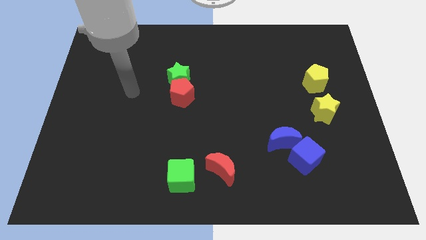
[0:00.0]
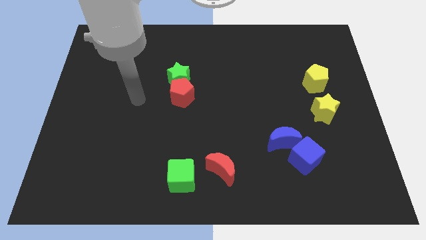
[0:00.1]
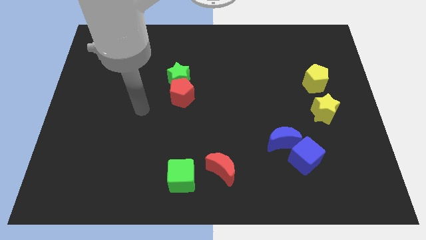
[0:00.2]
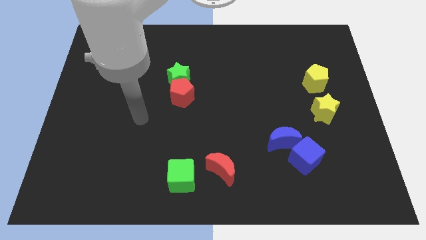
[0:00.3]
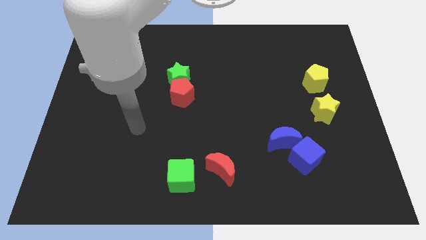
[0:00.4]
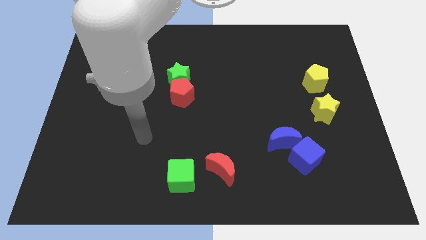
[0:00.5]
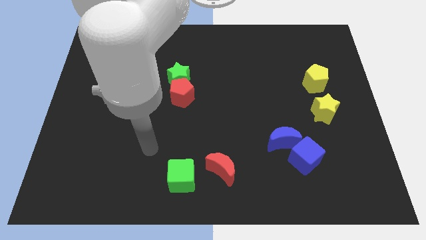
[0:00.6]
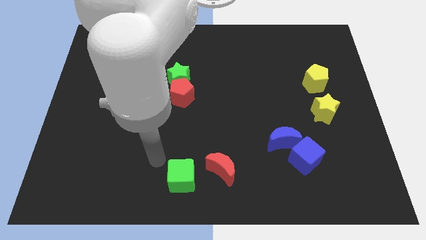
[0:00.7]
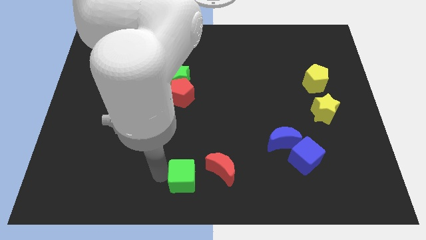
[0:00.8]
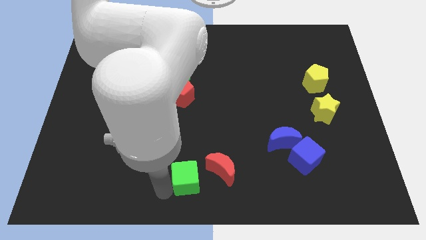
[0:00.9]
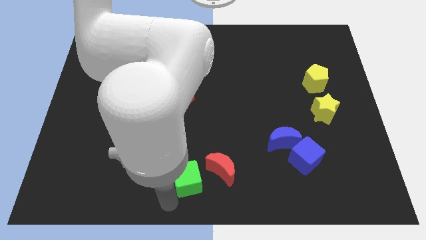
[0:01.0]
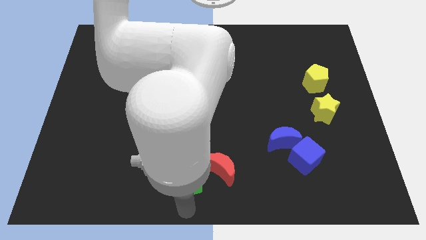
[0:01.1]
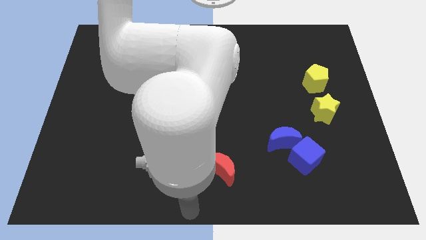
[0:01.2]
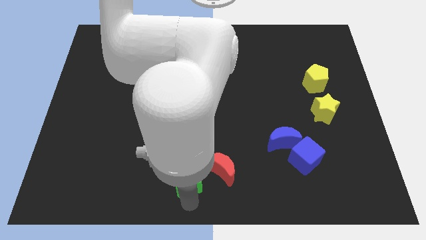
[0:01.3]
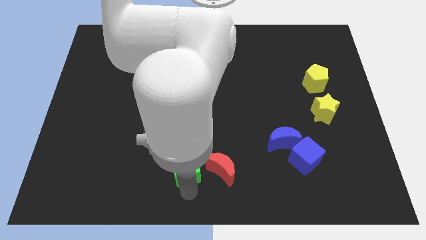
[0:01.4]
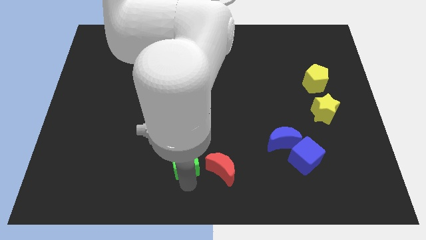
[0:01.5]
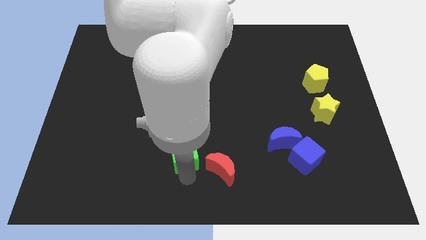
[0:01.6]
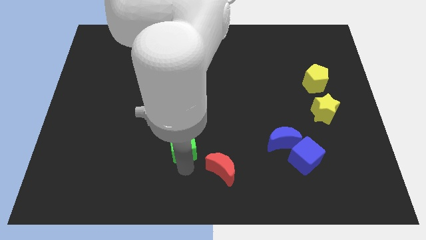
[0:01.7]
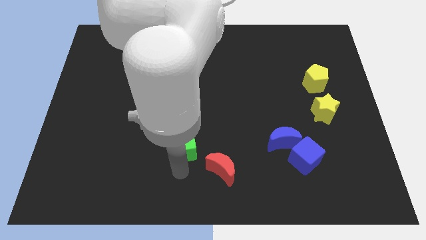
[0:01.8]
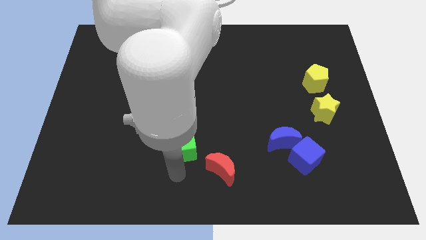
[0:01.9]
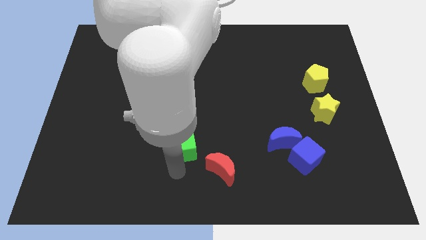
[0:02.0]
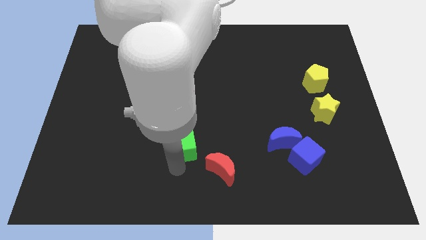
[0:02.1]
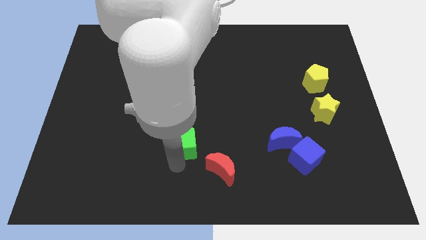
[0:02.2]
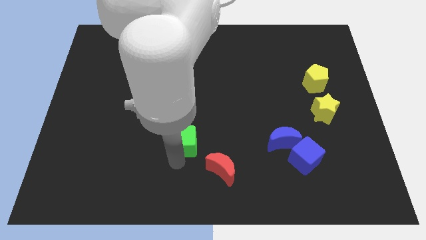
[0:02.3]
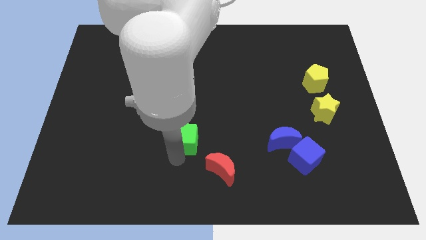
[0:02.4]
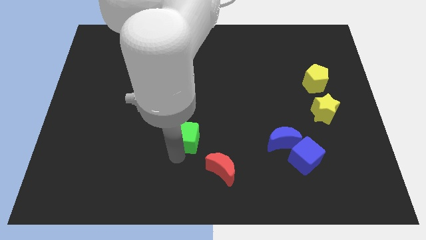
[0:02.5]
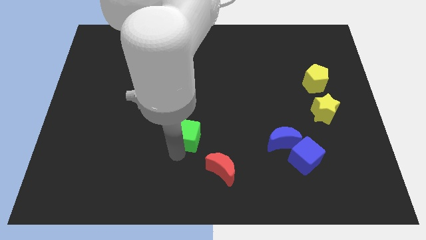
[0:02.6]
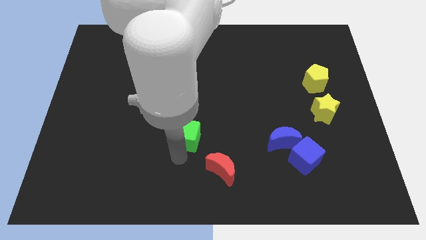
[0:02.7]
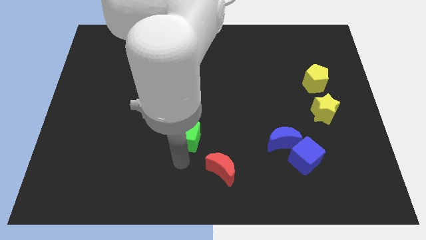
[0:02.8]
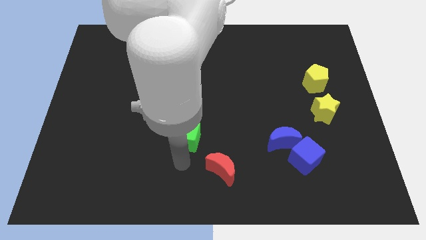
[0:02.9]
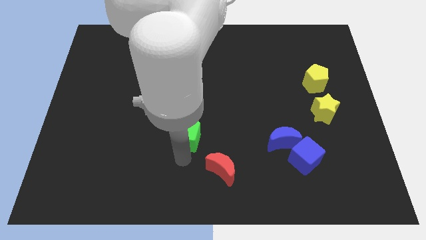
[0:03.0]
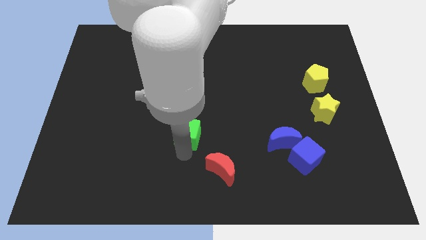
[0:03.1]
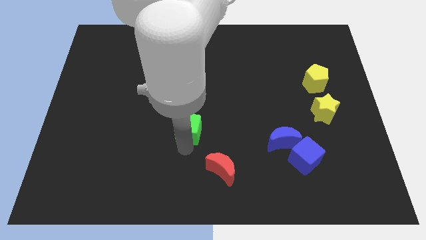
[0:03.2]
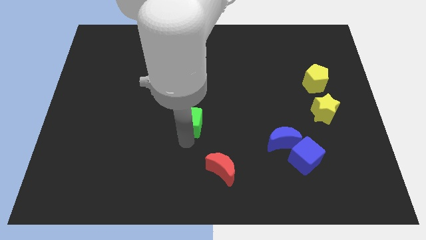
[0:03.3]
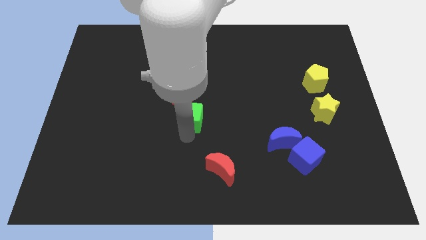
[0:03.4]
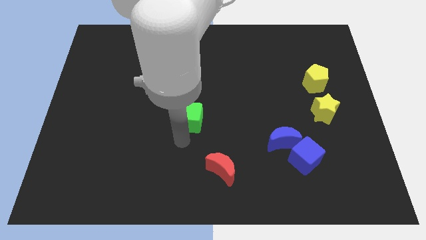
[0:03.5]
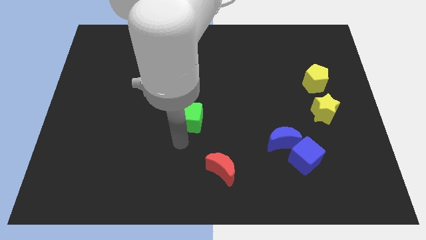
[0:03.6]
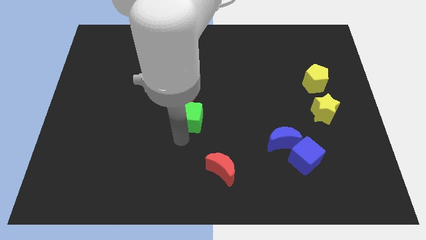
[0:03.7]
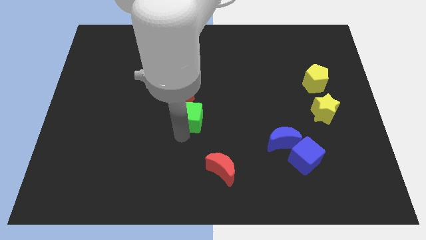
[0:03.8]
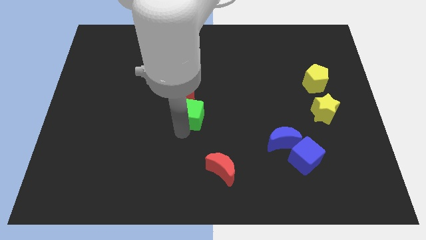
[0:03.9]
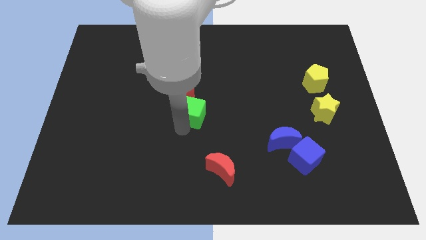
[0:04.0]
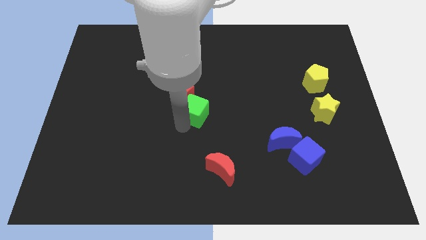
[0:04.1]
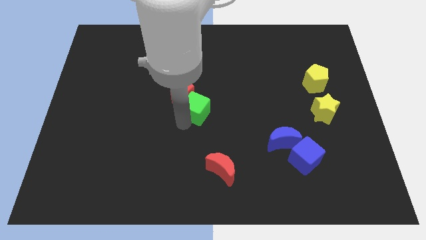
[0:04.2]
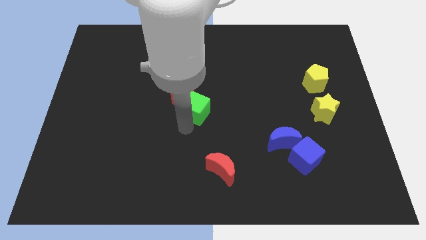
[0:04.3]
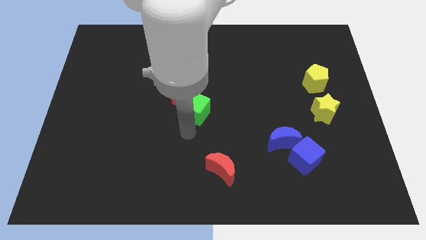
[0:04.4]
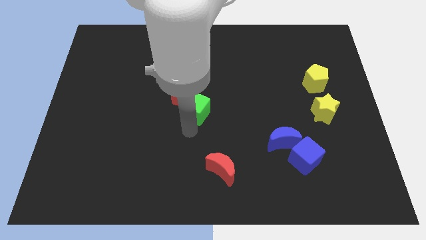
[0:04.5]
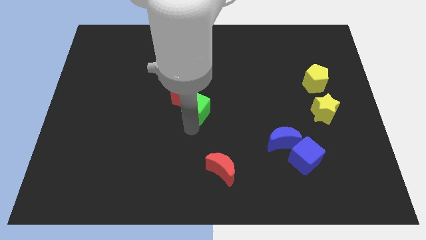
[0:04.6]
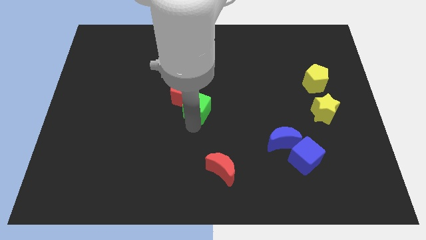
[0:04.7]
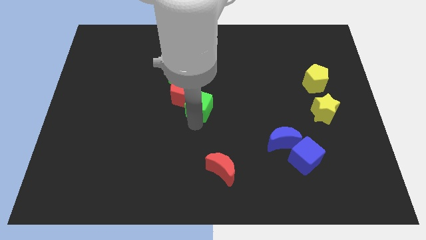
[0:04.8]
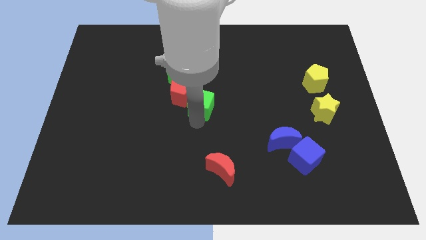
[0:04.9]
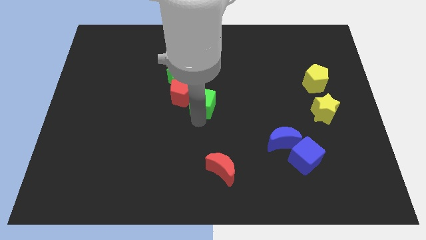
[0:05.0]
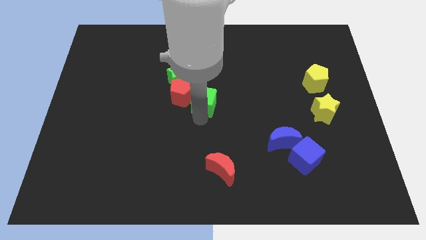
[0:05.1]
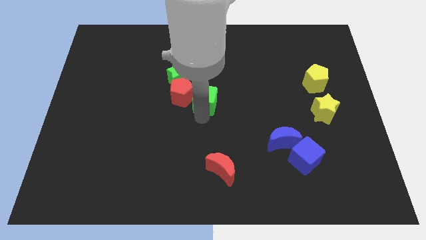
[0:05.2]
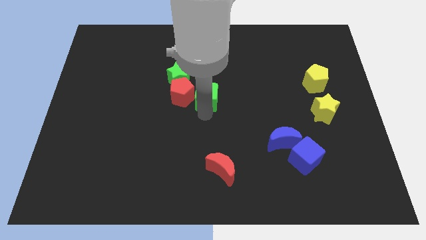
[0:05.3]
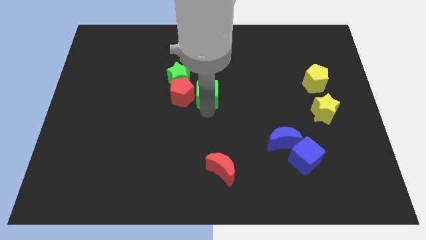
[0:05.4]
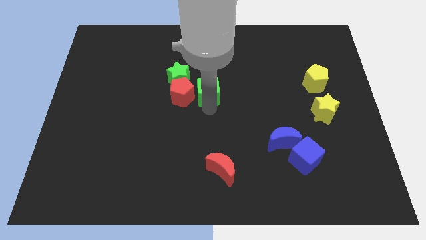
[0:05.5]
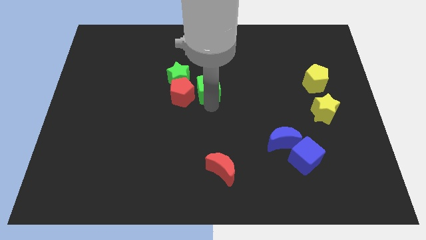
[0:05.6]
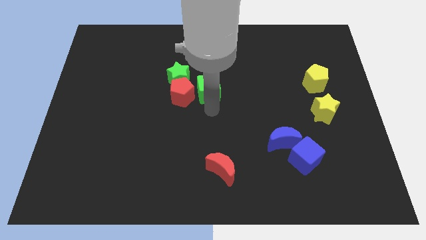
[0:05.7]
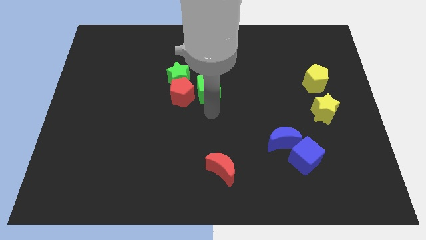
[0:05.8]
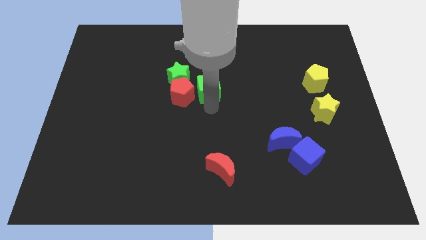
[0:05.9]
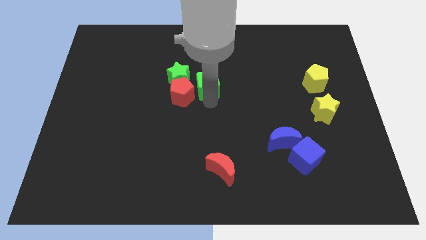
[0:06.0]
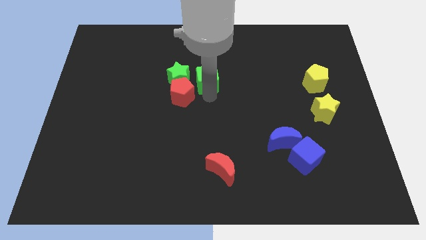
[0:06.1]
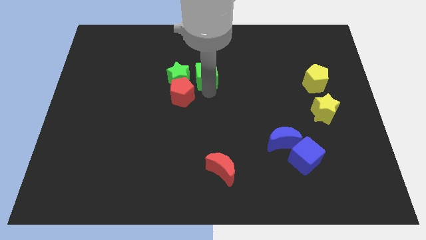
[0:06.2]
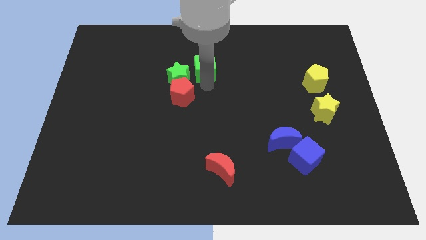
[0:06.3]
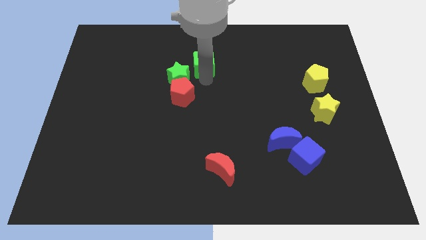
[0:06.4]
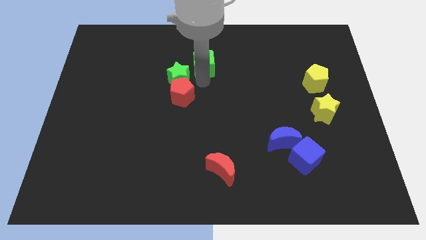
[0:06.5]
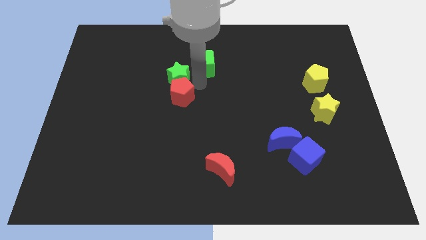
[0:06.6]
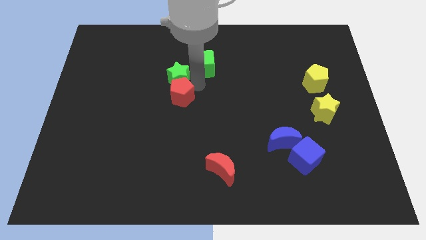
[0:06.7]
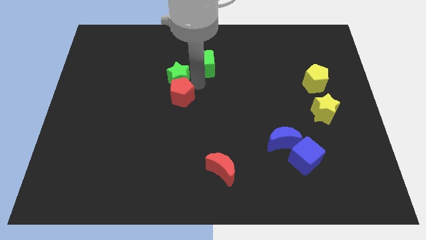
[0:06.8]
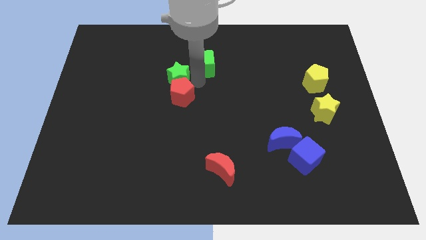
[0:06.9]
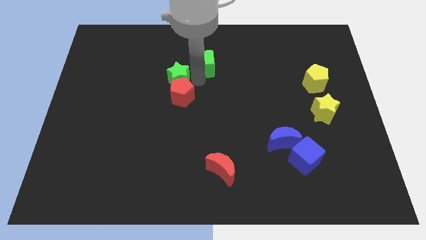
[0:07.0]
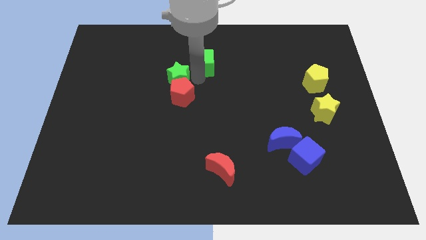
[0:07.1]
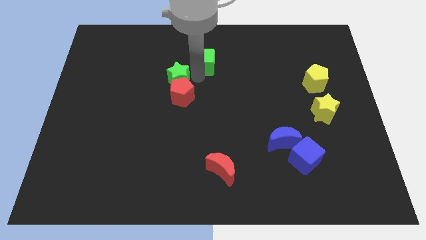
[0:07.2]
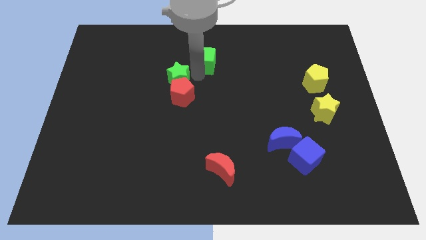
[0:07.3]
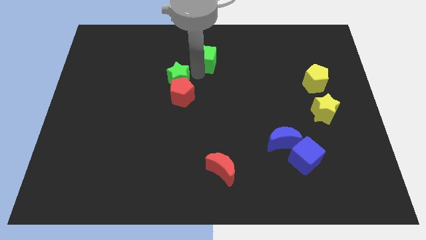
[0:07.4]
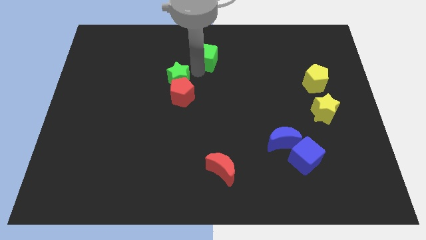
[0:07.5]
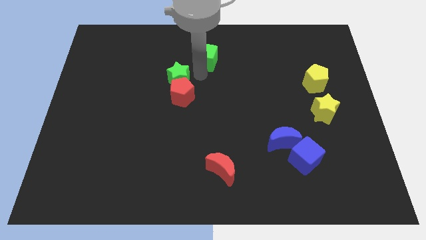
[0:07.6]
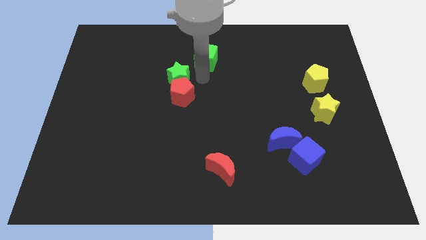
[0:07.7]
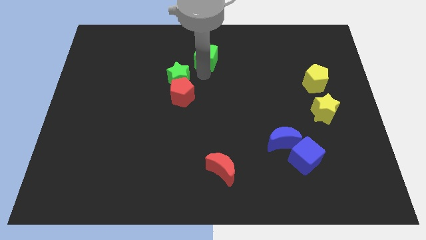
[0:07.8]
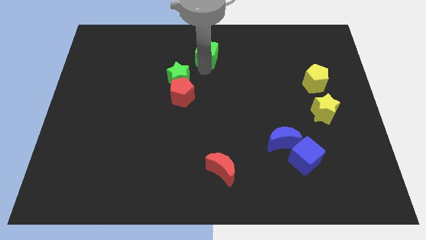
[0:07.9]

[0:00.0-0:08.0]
slide the green cube to the top
